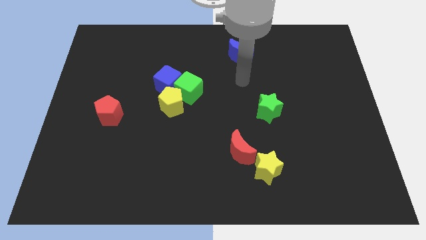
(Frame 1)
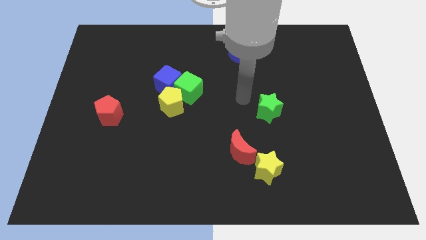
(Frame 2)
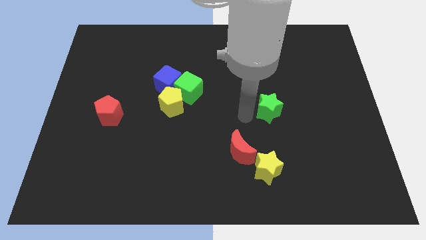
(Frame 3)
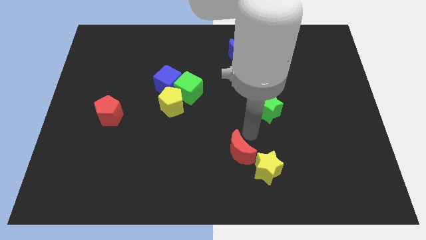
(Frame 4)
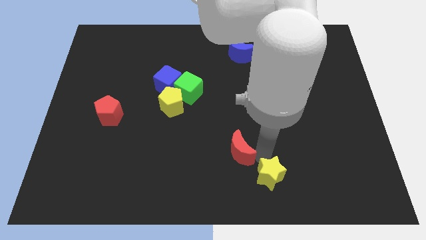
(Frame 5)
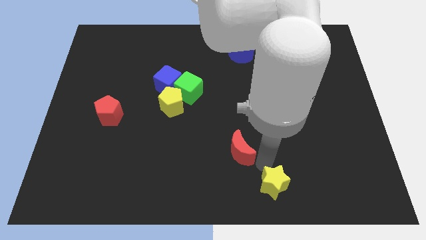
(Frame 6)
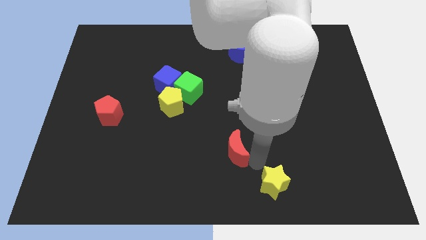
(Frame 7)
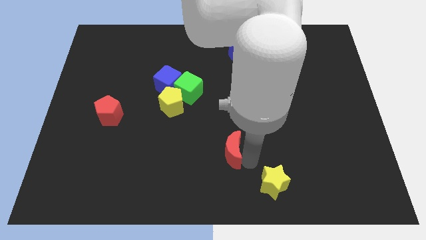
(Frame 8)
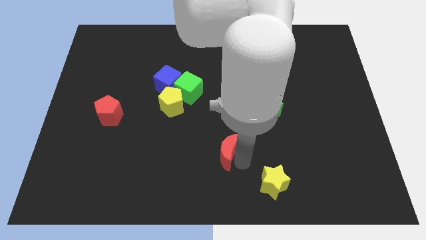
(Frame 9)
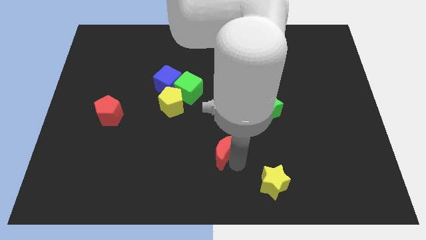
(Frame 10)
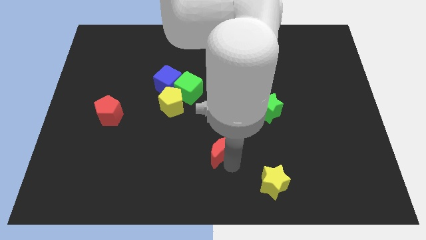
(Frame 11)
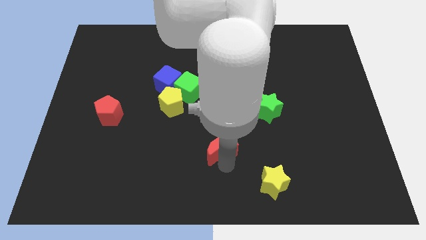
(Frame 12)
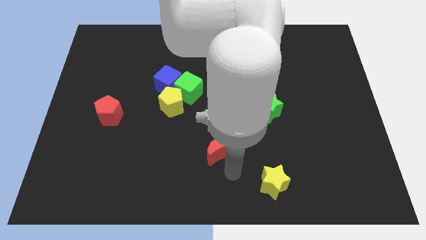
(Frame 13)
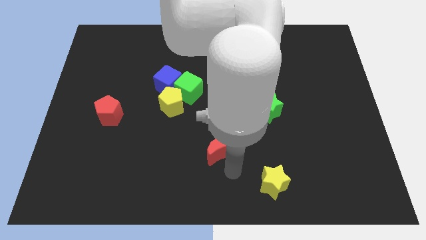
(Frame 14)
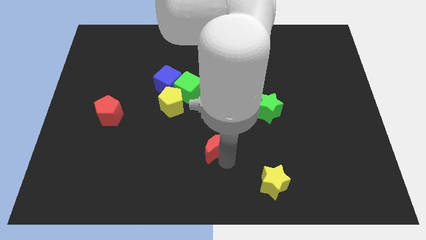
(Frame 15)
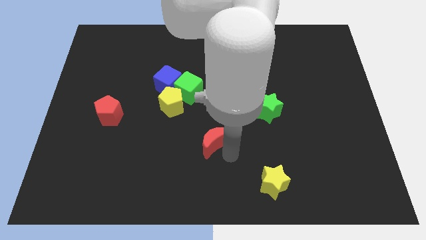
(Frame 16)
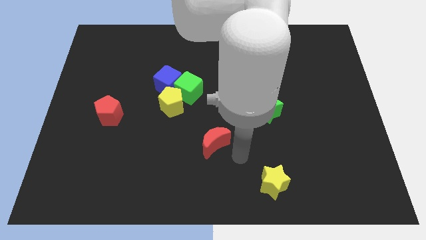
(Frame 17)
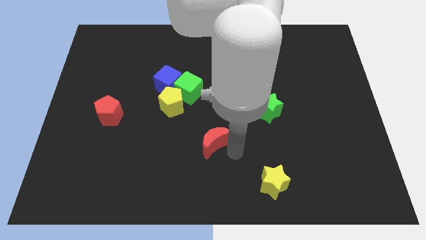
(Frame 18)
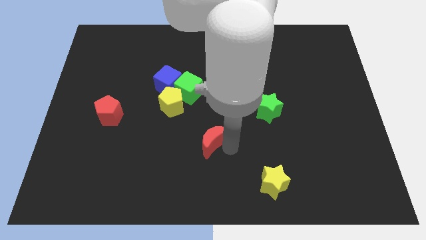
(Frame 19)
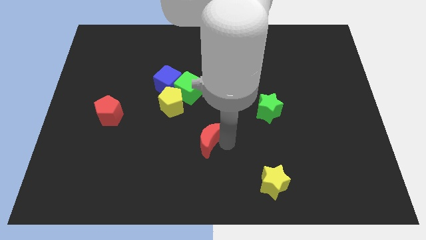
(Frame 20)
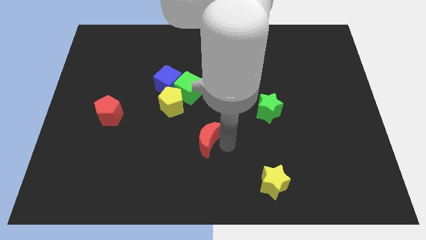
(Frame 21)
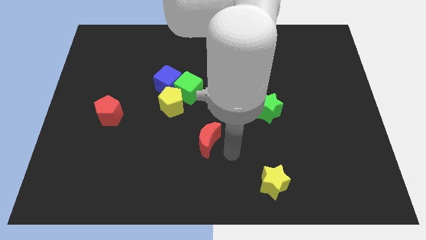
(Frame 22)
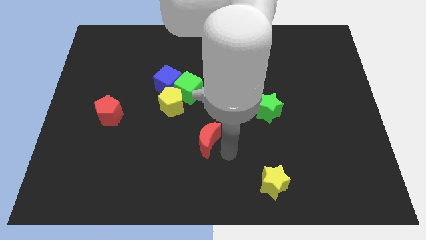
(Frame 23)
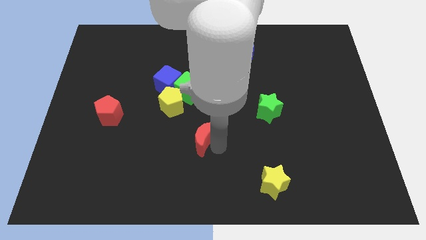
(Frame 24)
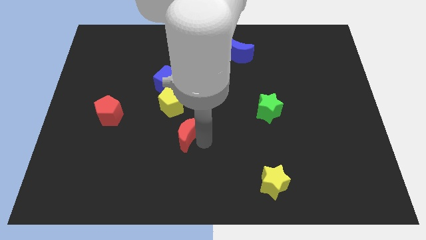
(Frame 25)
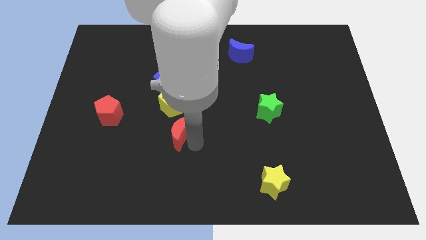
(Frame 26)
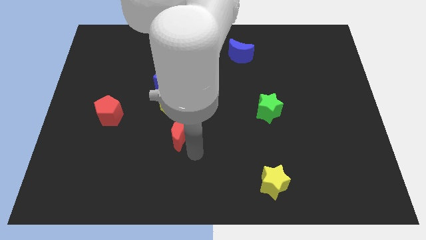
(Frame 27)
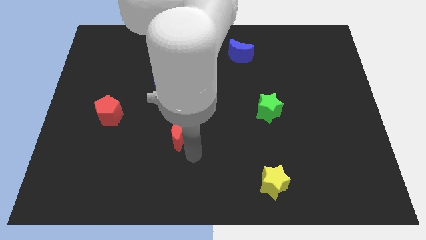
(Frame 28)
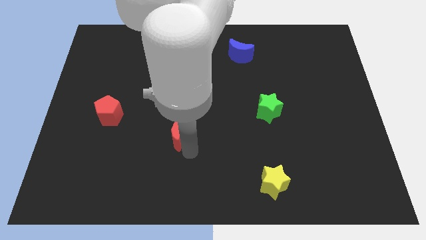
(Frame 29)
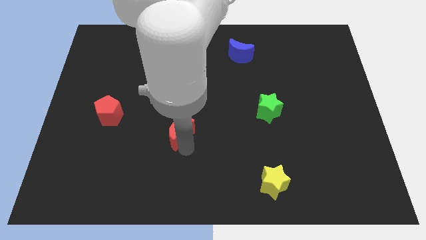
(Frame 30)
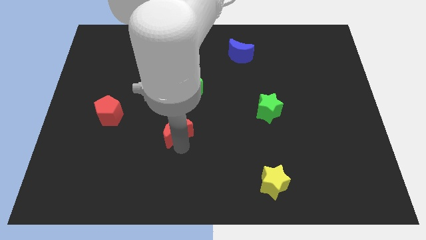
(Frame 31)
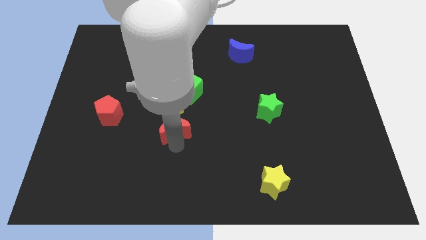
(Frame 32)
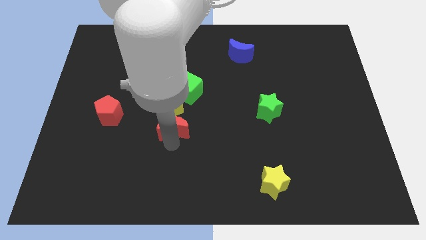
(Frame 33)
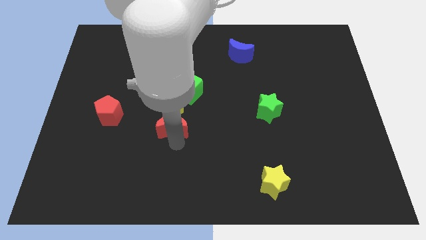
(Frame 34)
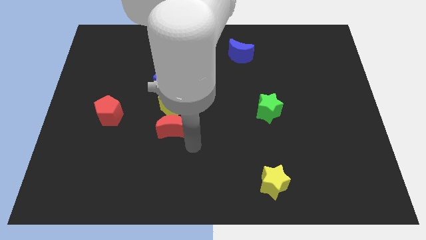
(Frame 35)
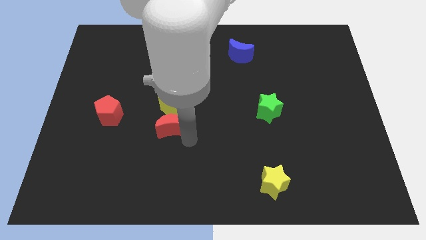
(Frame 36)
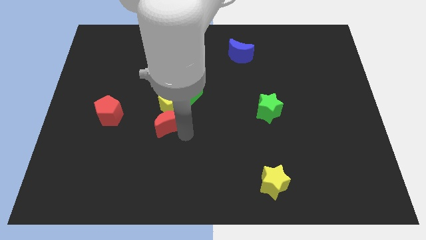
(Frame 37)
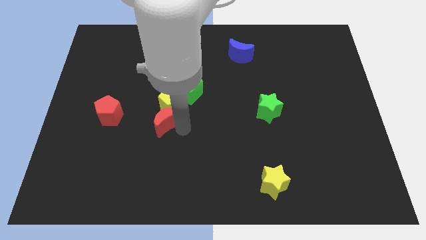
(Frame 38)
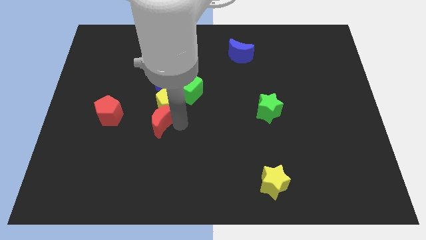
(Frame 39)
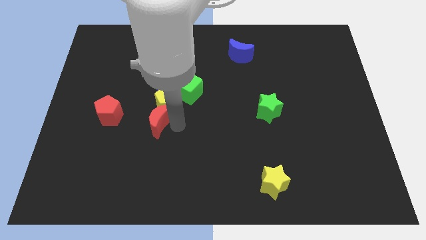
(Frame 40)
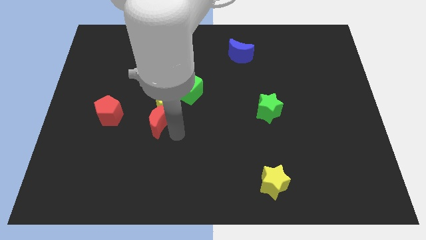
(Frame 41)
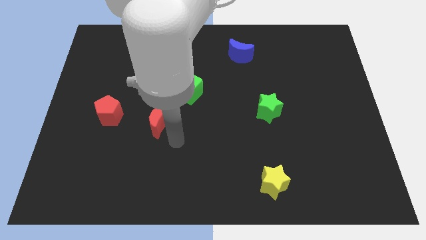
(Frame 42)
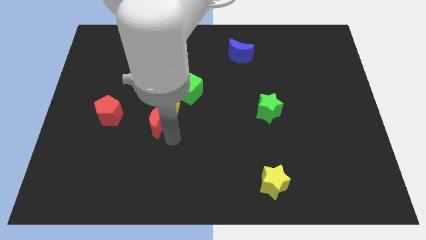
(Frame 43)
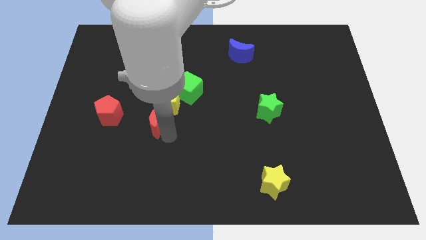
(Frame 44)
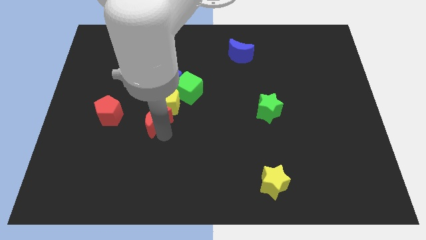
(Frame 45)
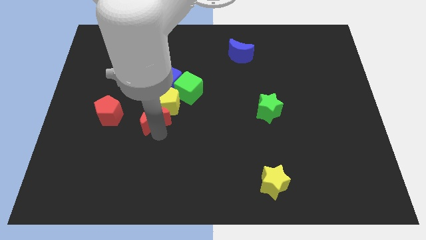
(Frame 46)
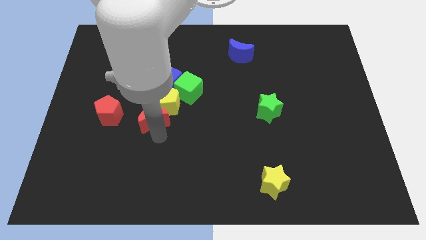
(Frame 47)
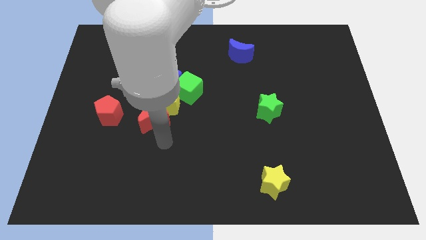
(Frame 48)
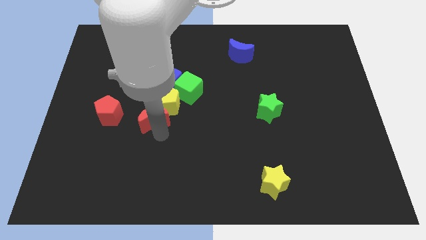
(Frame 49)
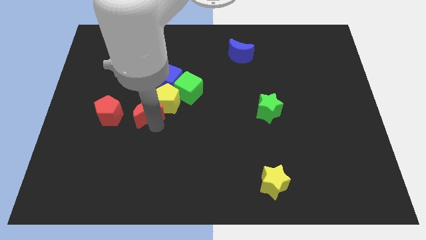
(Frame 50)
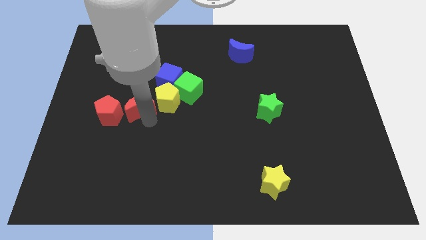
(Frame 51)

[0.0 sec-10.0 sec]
slide the red moon up and to the left diagonally

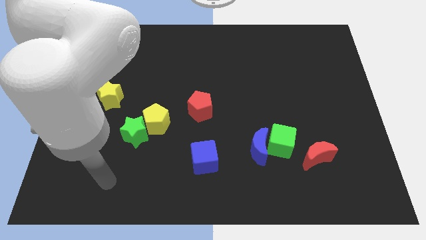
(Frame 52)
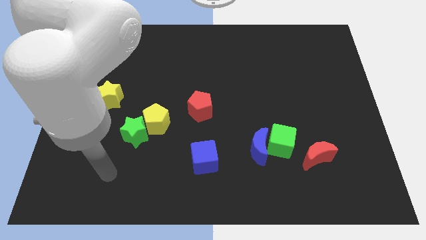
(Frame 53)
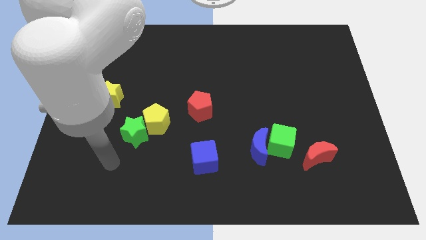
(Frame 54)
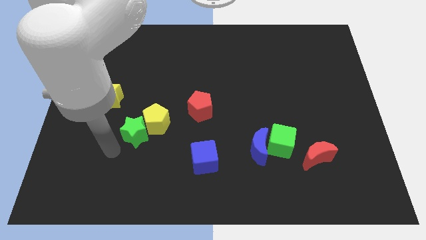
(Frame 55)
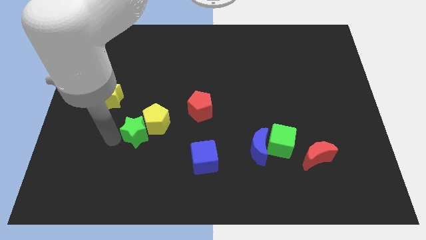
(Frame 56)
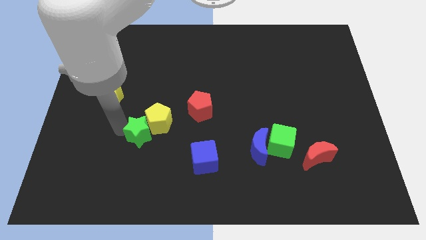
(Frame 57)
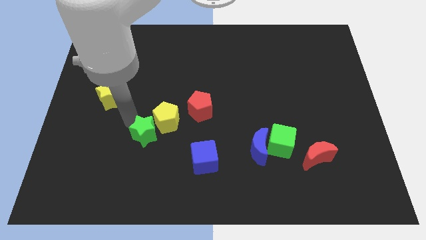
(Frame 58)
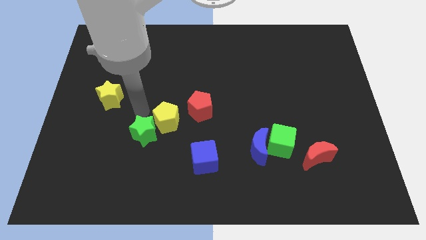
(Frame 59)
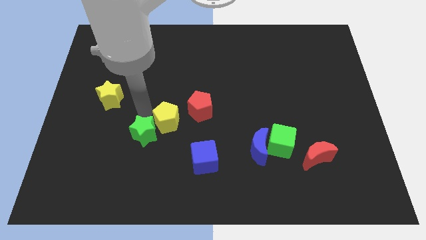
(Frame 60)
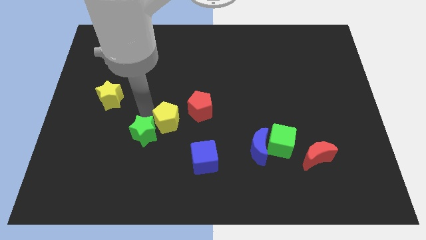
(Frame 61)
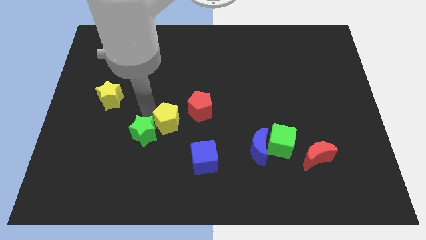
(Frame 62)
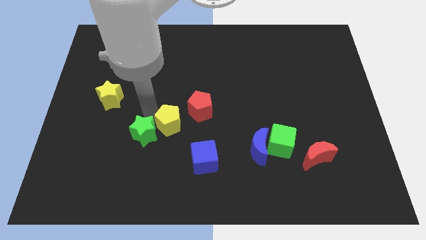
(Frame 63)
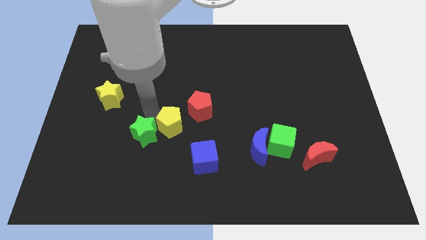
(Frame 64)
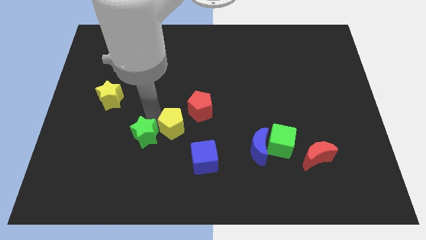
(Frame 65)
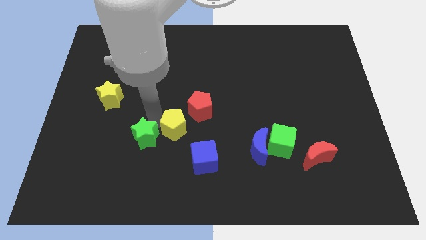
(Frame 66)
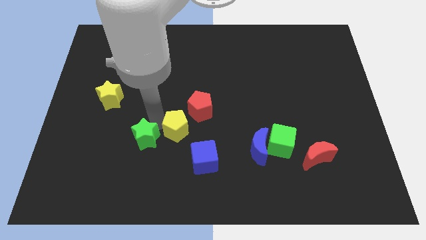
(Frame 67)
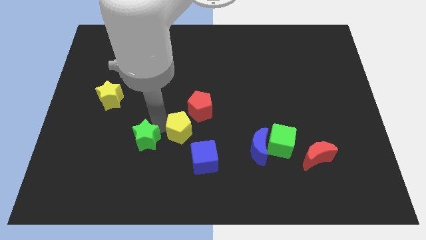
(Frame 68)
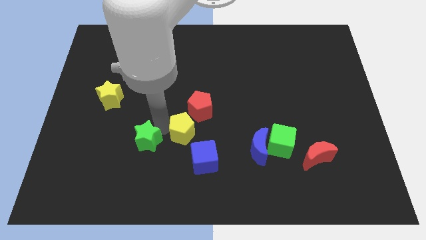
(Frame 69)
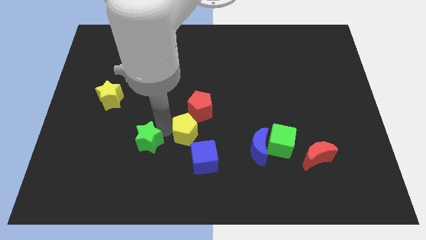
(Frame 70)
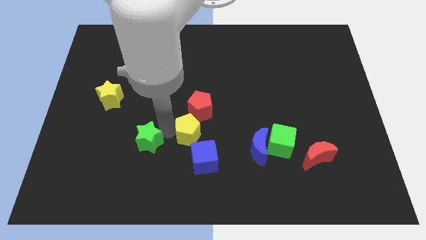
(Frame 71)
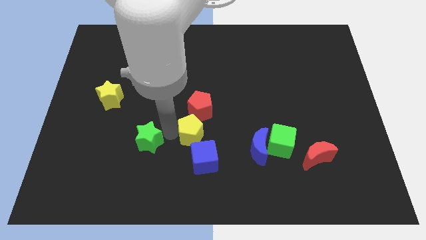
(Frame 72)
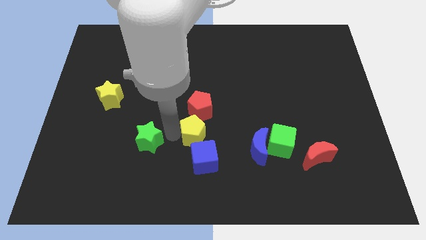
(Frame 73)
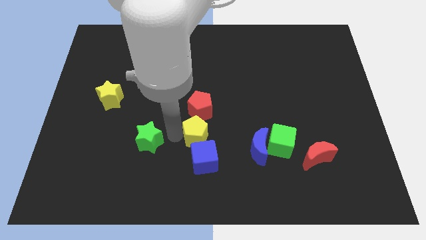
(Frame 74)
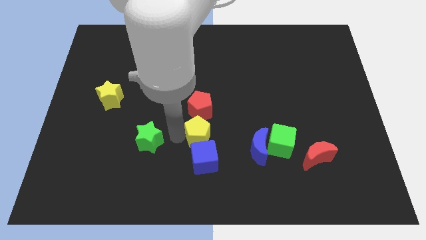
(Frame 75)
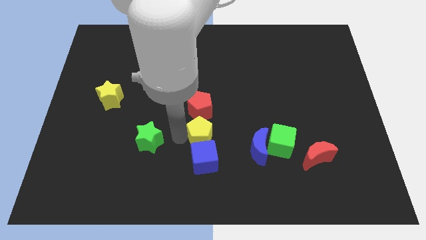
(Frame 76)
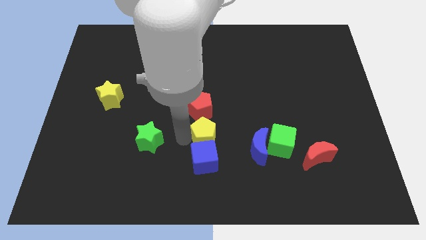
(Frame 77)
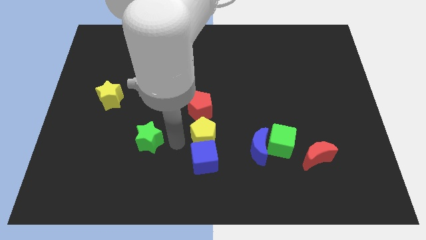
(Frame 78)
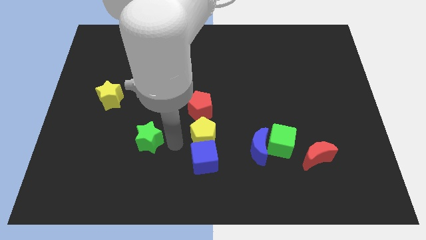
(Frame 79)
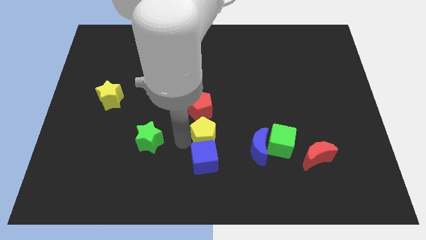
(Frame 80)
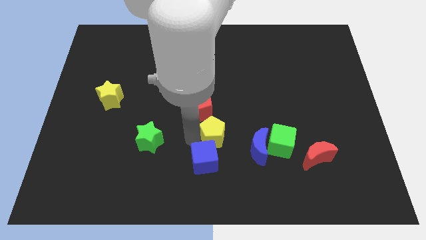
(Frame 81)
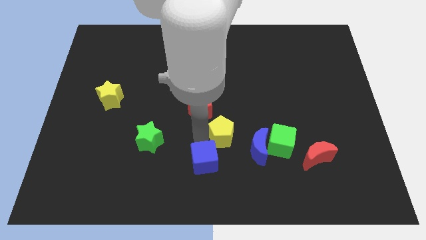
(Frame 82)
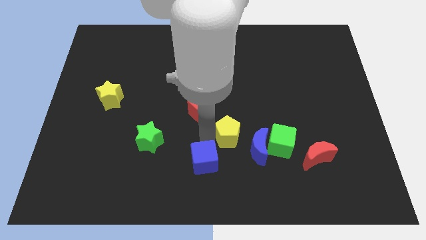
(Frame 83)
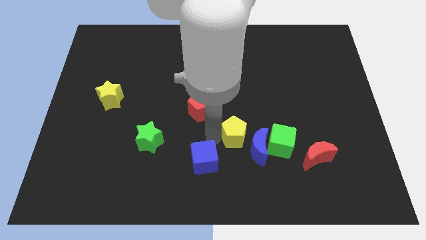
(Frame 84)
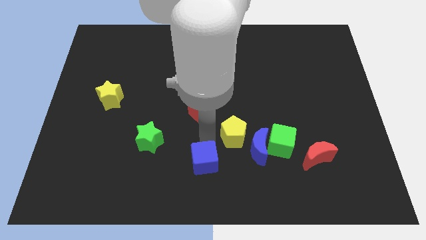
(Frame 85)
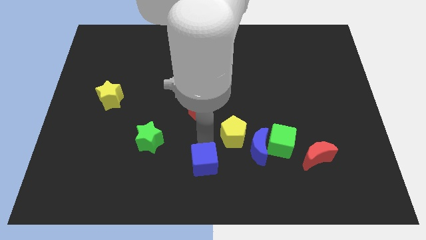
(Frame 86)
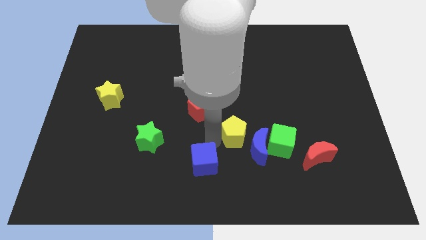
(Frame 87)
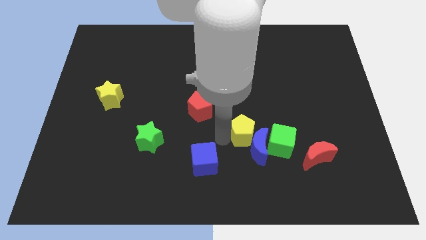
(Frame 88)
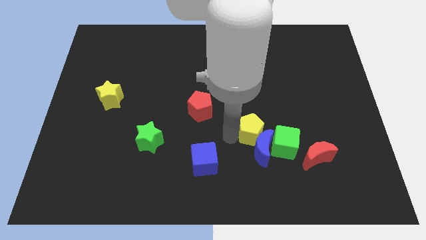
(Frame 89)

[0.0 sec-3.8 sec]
slide the yellow pentagon to the right
